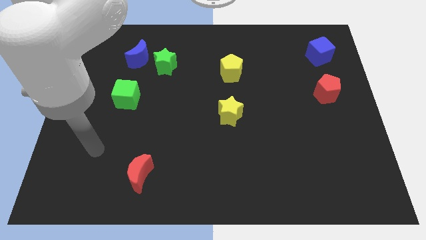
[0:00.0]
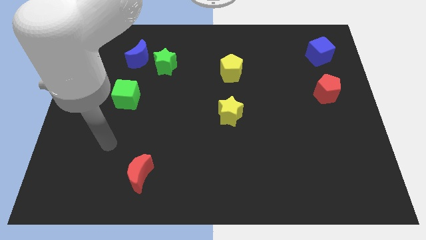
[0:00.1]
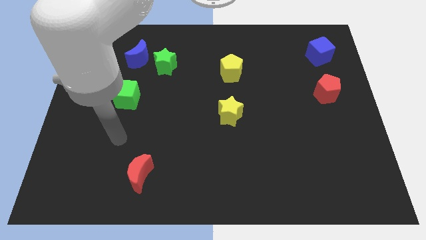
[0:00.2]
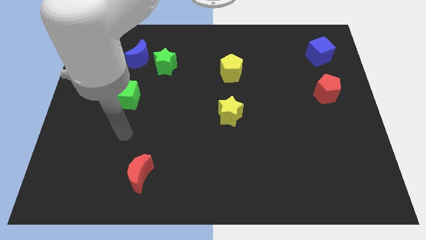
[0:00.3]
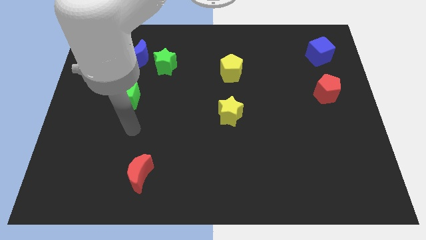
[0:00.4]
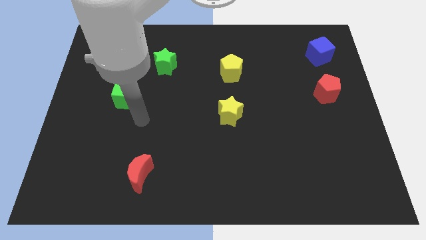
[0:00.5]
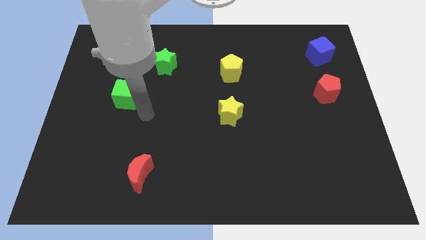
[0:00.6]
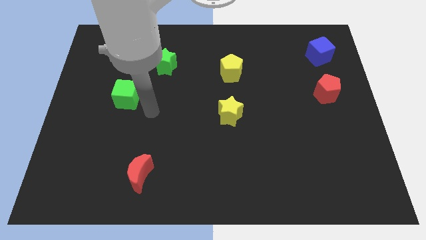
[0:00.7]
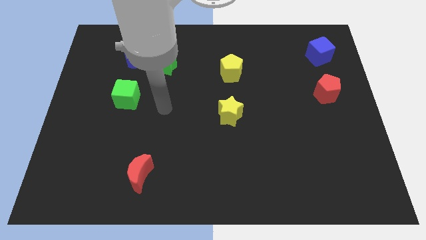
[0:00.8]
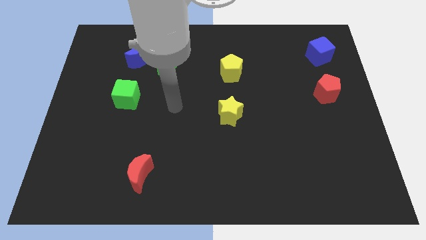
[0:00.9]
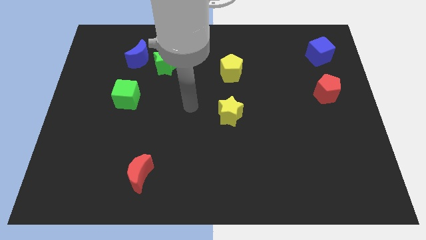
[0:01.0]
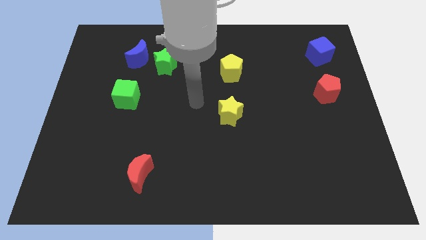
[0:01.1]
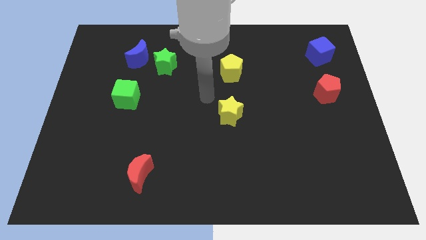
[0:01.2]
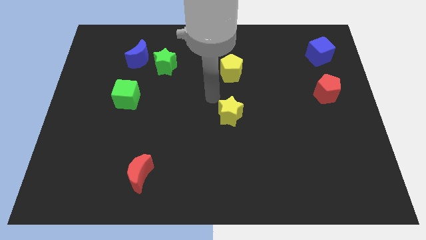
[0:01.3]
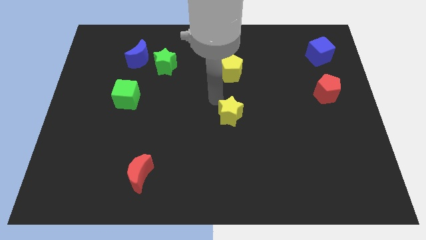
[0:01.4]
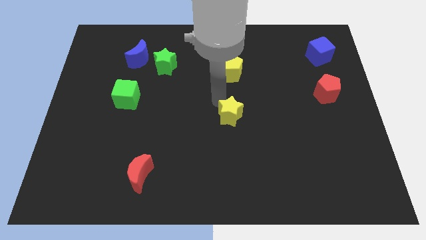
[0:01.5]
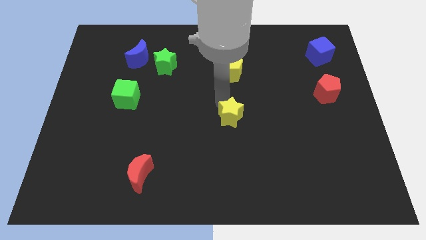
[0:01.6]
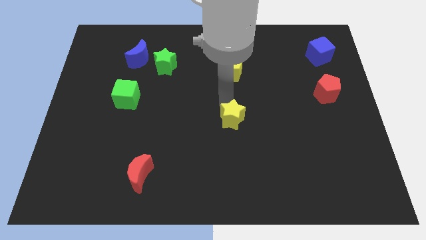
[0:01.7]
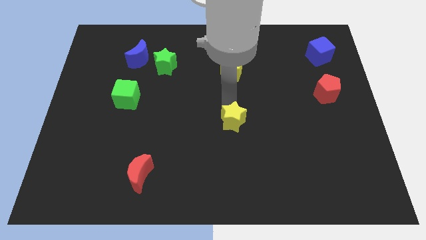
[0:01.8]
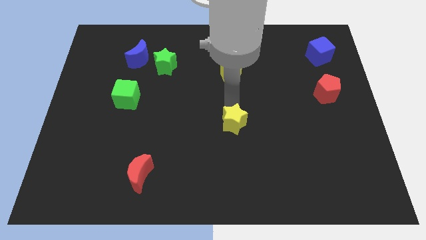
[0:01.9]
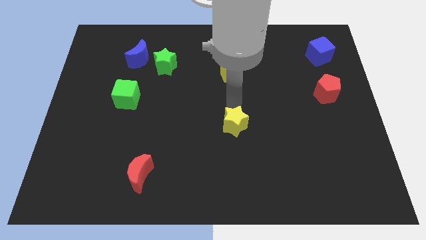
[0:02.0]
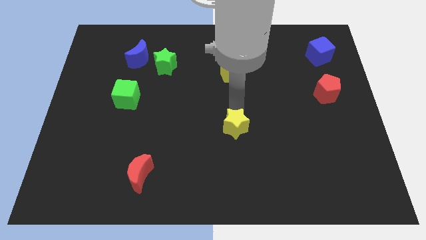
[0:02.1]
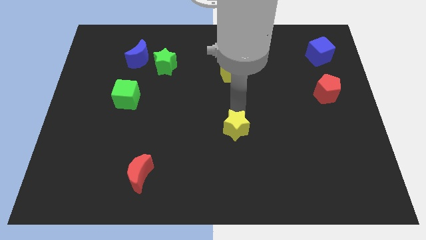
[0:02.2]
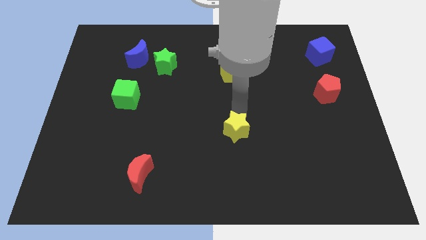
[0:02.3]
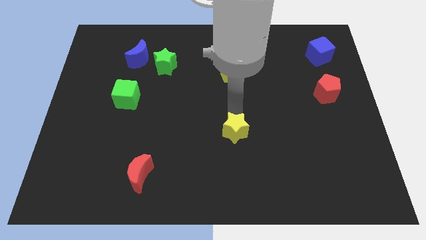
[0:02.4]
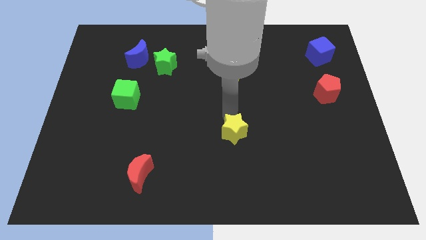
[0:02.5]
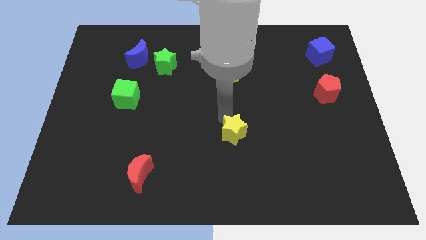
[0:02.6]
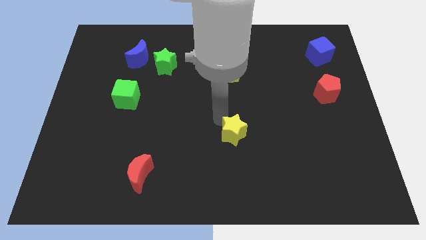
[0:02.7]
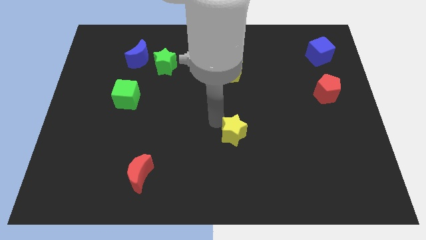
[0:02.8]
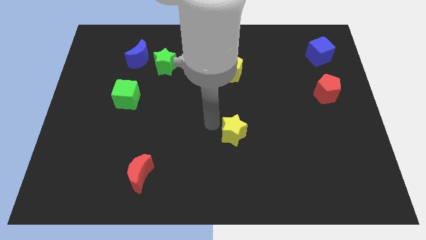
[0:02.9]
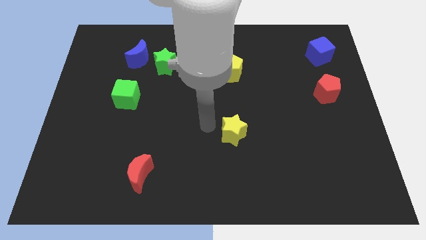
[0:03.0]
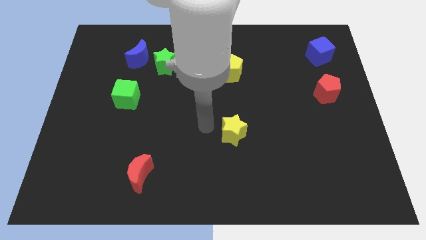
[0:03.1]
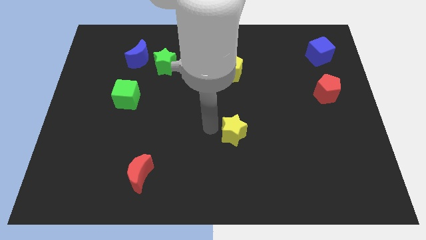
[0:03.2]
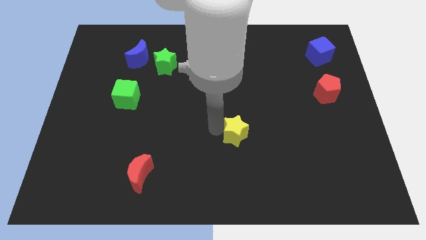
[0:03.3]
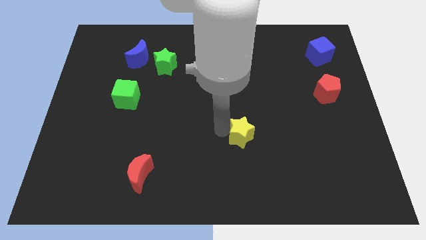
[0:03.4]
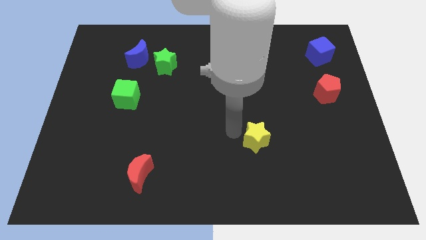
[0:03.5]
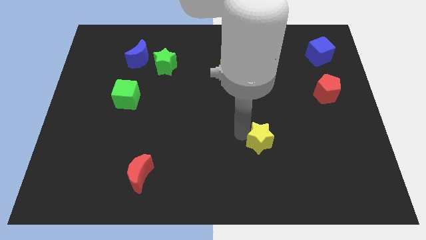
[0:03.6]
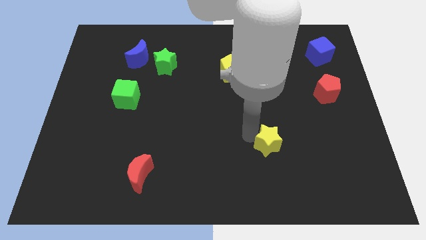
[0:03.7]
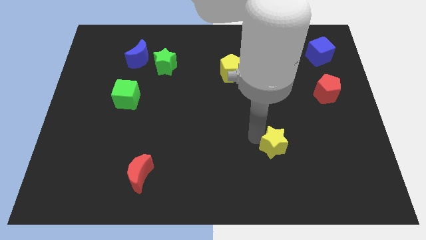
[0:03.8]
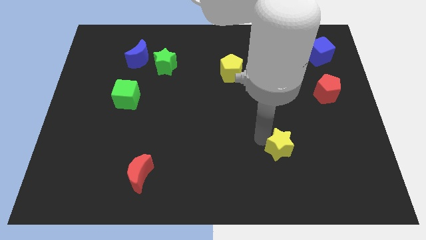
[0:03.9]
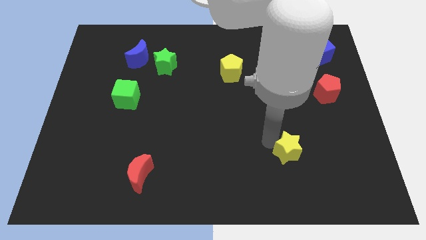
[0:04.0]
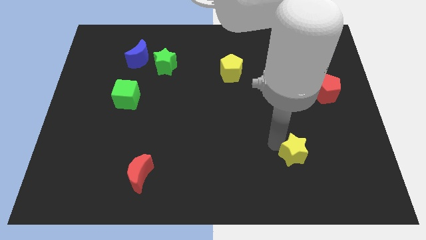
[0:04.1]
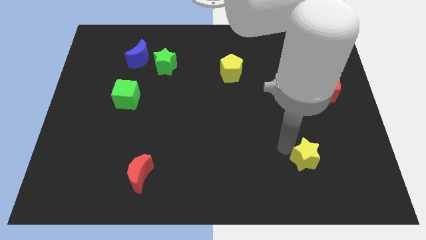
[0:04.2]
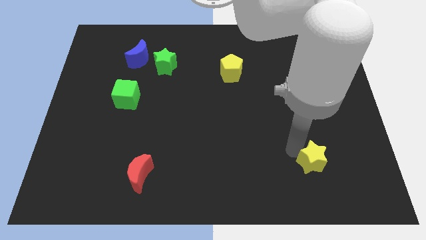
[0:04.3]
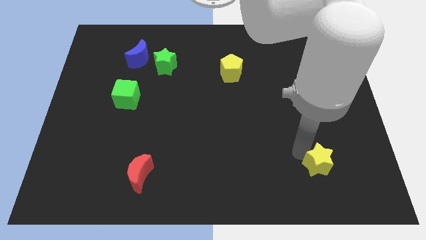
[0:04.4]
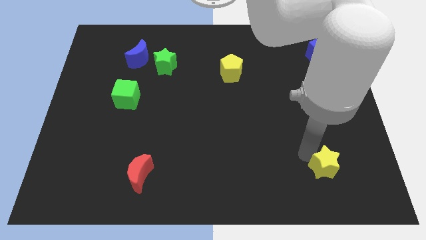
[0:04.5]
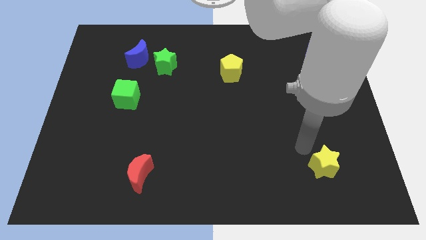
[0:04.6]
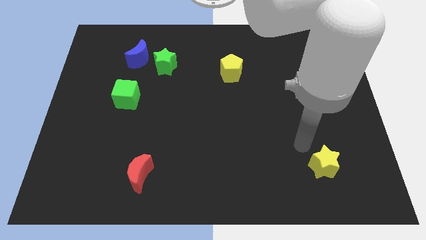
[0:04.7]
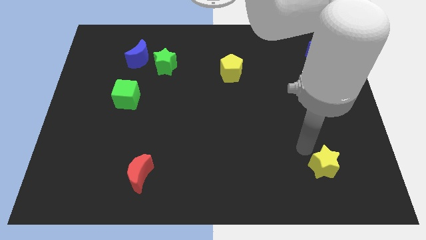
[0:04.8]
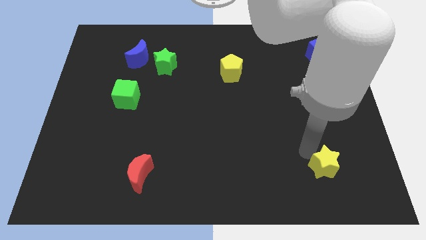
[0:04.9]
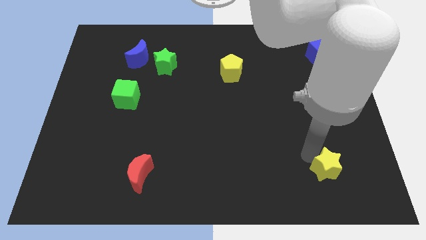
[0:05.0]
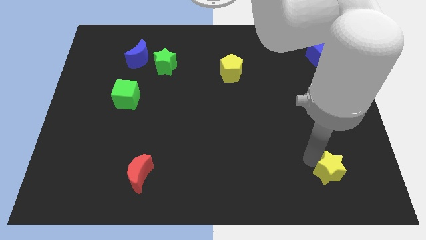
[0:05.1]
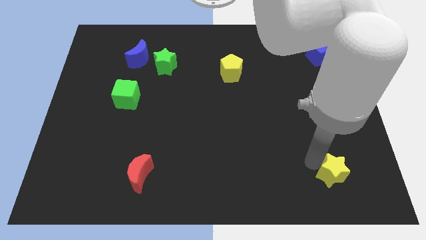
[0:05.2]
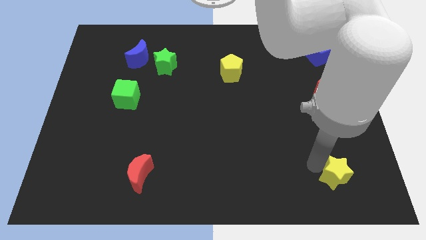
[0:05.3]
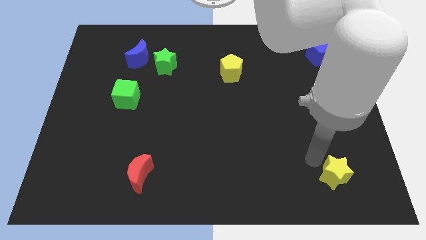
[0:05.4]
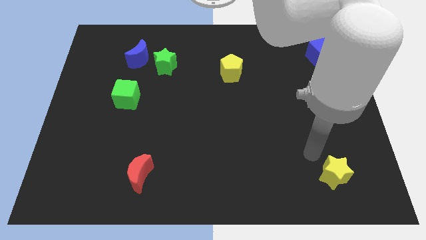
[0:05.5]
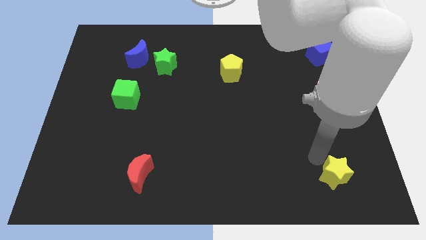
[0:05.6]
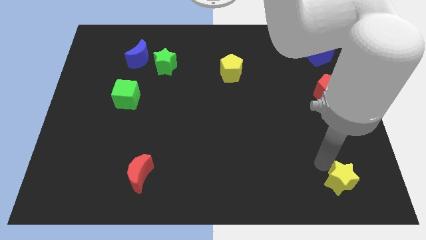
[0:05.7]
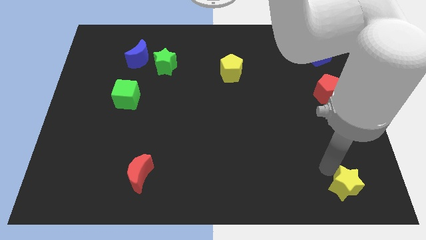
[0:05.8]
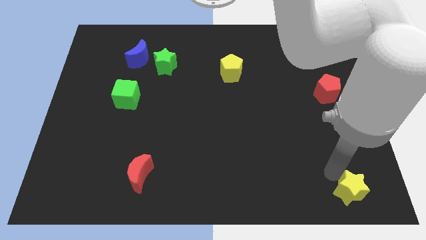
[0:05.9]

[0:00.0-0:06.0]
put the yellow star to the bottom right

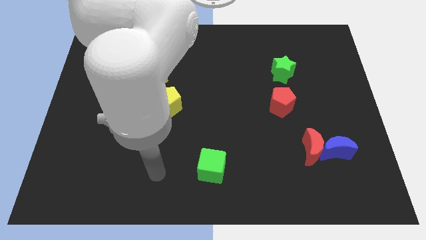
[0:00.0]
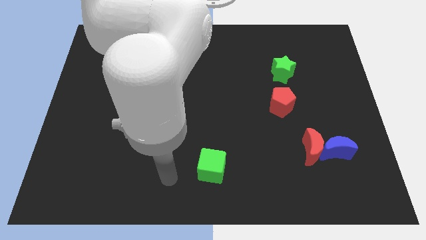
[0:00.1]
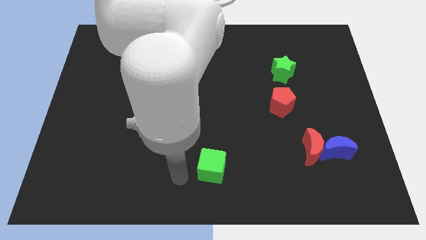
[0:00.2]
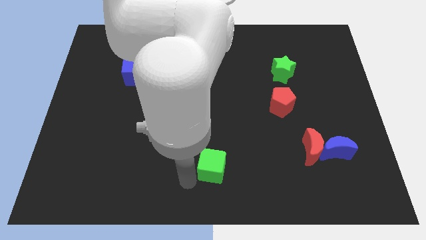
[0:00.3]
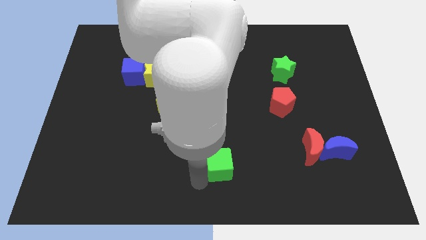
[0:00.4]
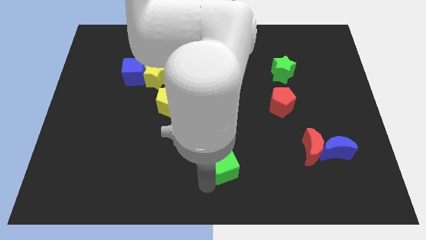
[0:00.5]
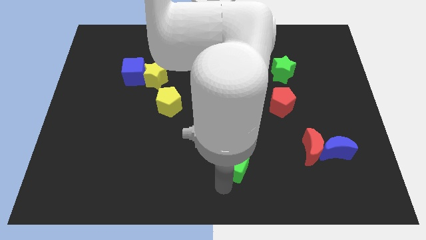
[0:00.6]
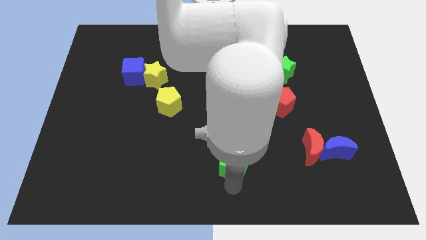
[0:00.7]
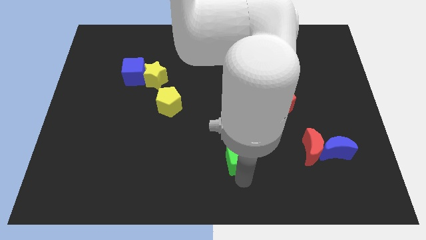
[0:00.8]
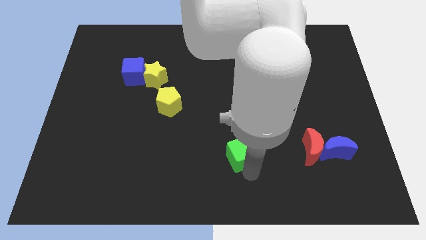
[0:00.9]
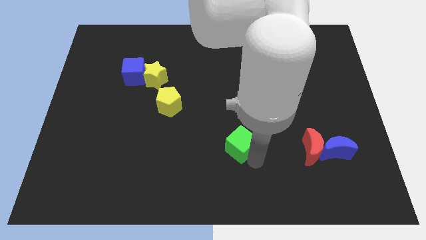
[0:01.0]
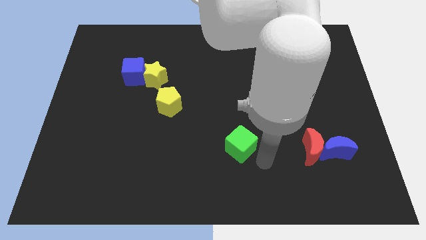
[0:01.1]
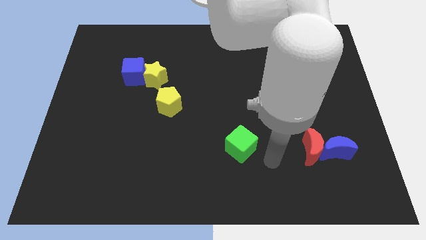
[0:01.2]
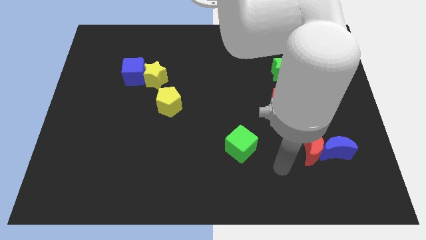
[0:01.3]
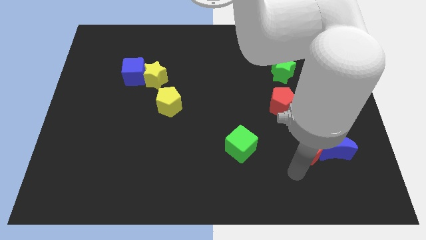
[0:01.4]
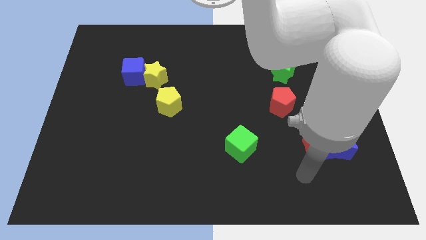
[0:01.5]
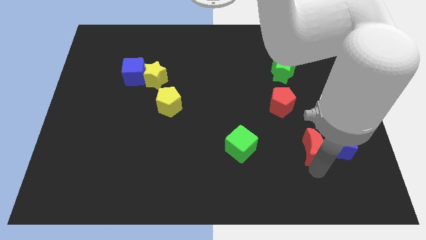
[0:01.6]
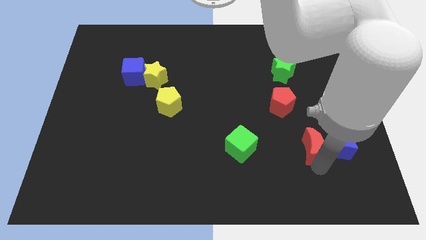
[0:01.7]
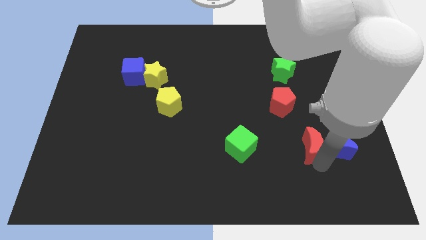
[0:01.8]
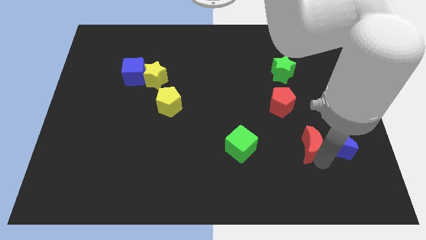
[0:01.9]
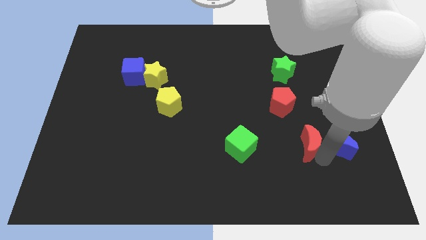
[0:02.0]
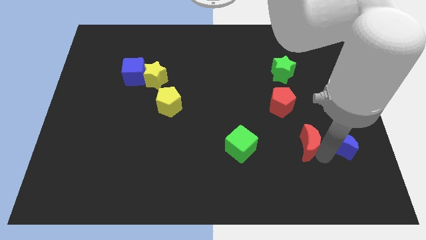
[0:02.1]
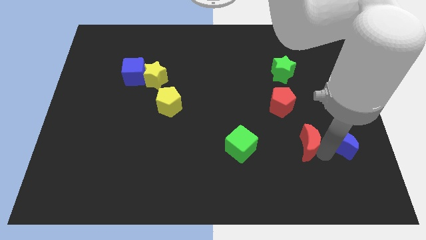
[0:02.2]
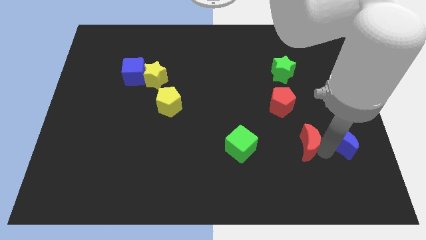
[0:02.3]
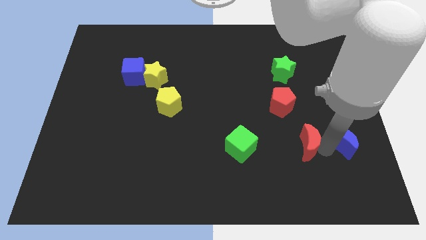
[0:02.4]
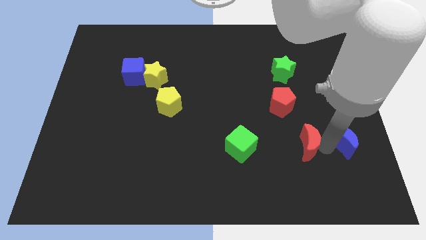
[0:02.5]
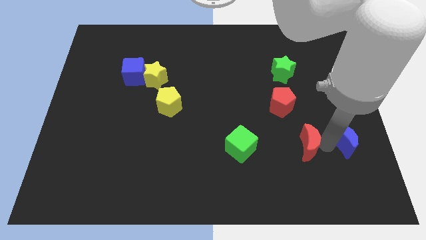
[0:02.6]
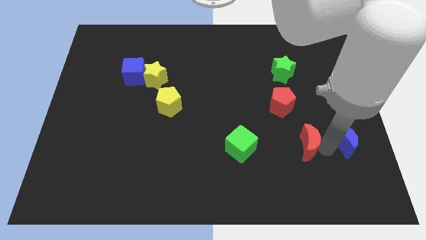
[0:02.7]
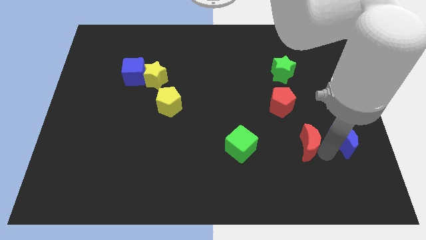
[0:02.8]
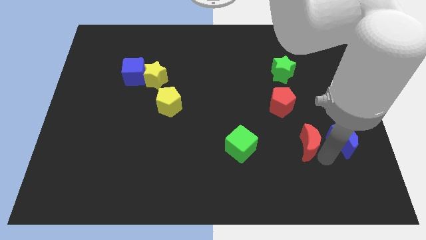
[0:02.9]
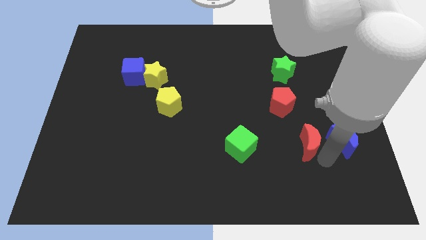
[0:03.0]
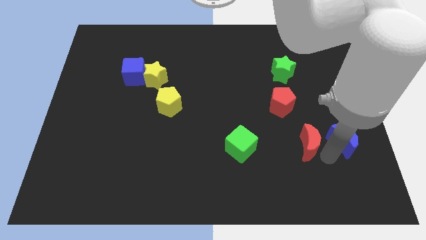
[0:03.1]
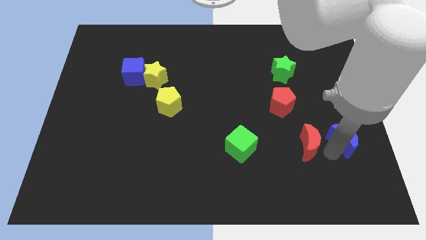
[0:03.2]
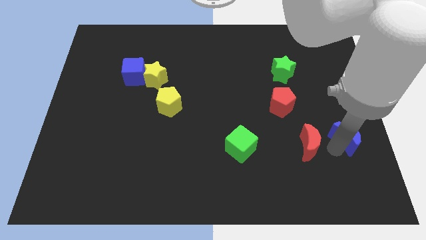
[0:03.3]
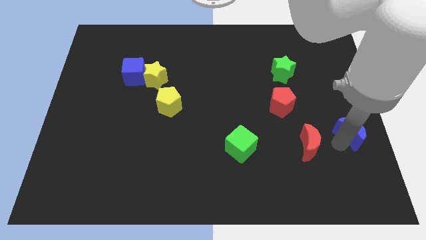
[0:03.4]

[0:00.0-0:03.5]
push the blue moon to the center right
